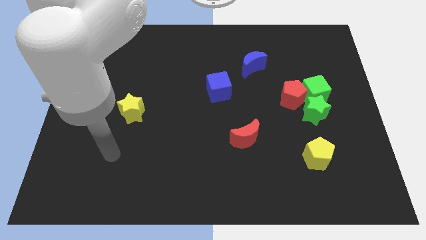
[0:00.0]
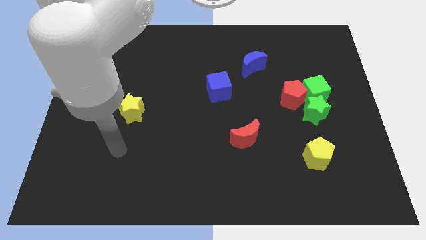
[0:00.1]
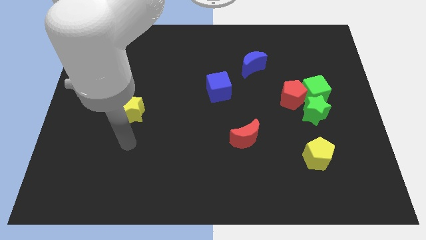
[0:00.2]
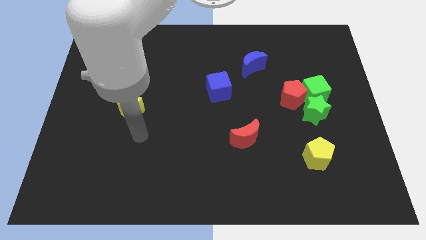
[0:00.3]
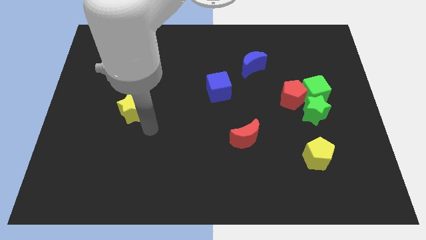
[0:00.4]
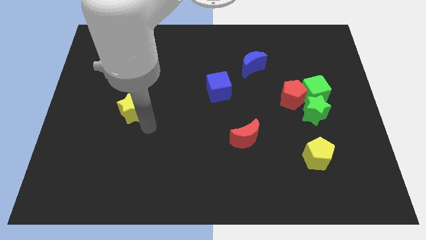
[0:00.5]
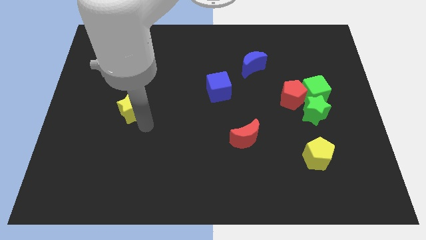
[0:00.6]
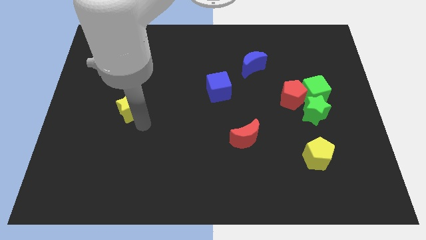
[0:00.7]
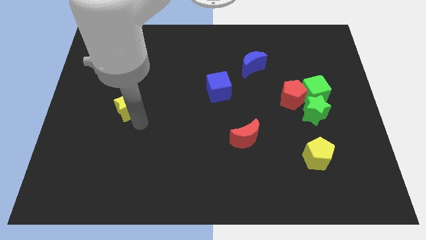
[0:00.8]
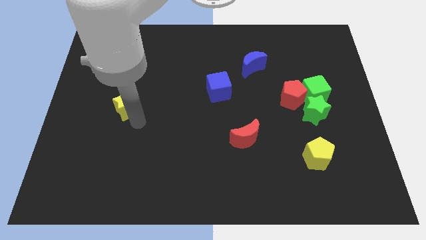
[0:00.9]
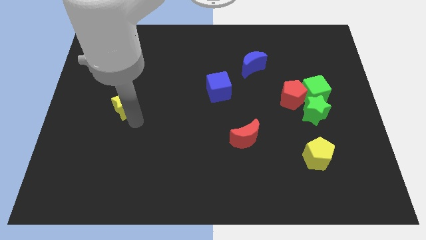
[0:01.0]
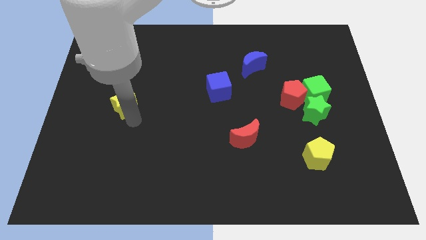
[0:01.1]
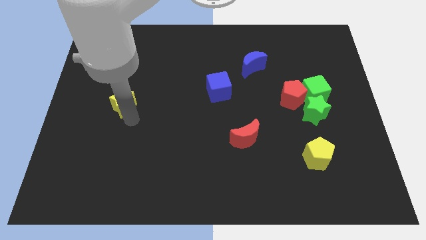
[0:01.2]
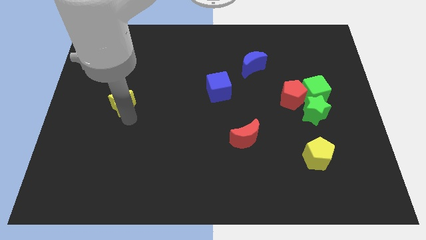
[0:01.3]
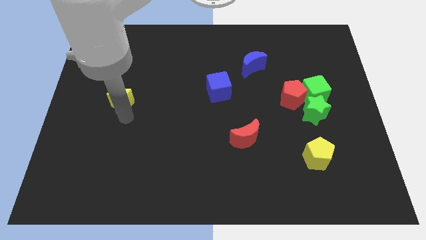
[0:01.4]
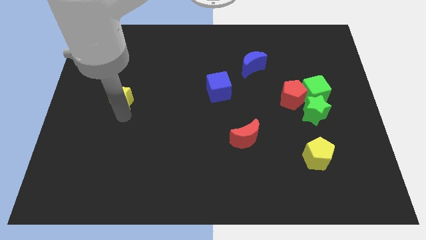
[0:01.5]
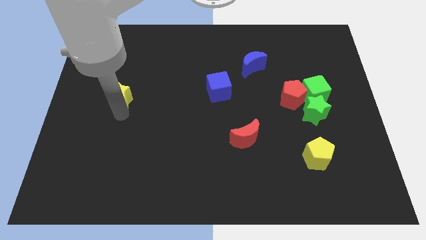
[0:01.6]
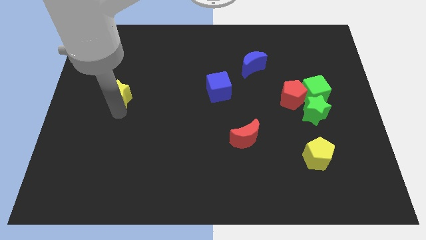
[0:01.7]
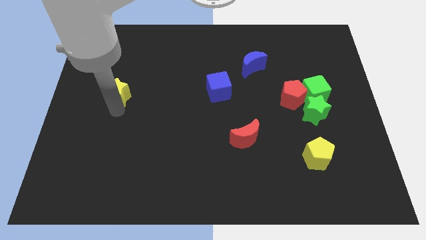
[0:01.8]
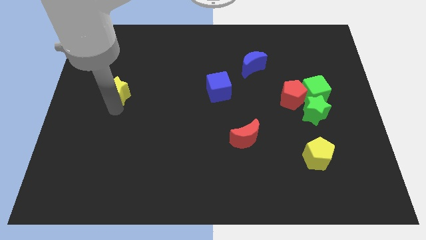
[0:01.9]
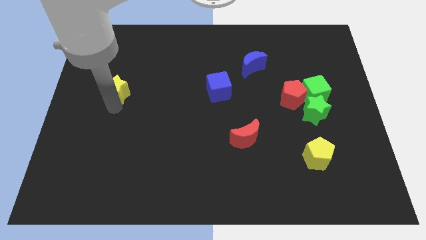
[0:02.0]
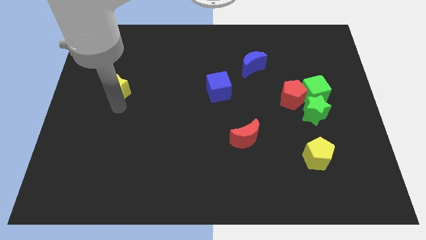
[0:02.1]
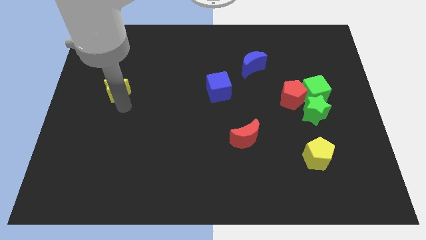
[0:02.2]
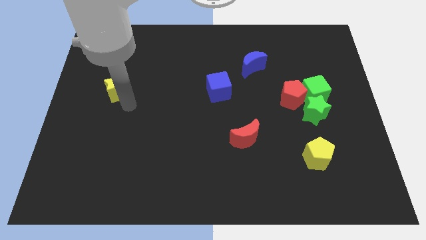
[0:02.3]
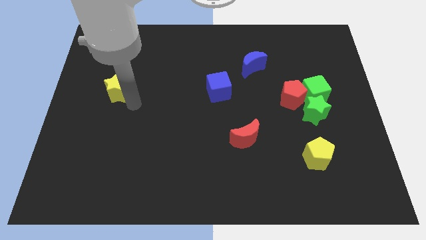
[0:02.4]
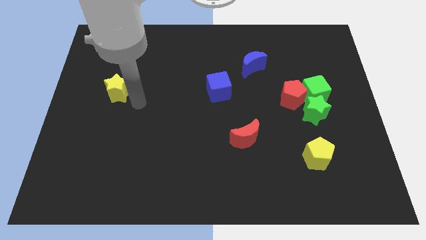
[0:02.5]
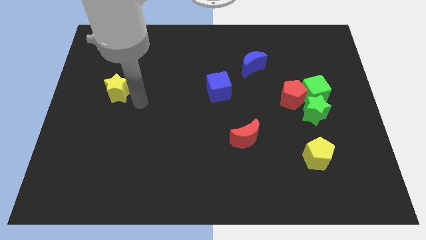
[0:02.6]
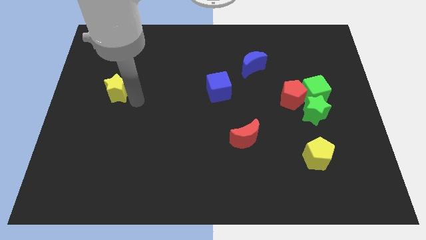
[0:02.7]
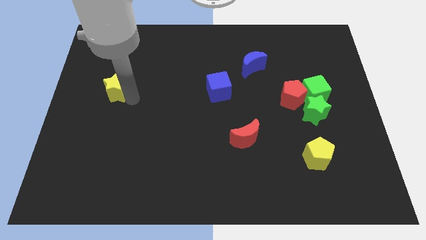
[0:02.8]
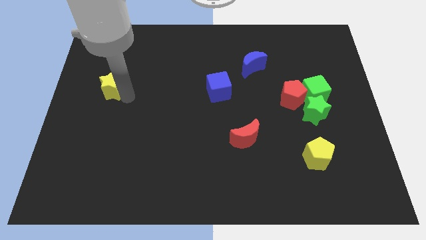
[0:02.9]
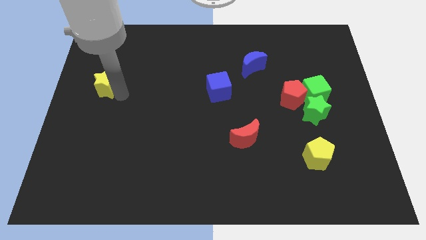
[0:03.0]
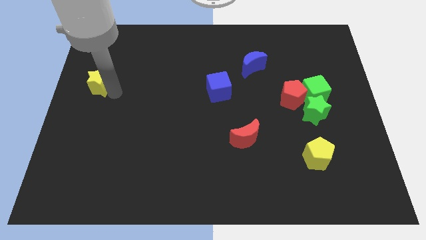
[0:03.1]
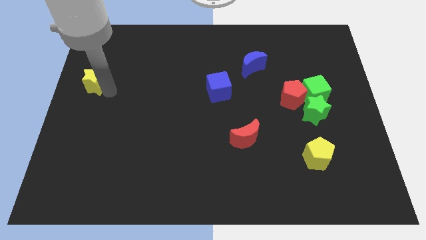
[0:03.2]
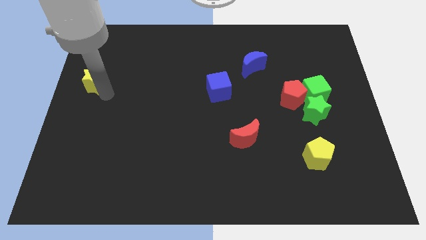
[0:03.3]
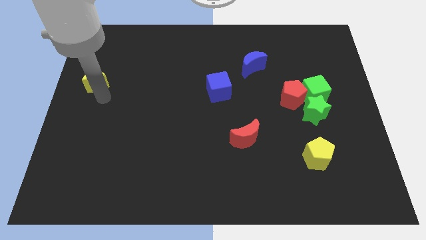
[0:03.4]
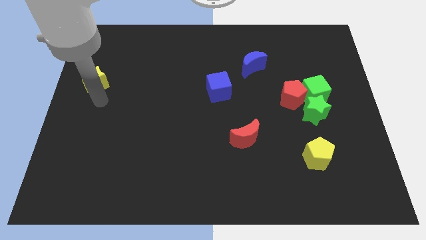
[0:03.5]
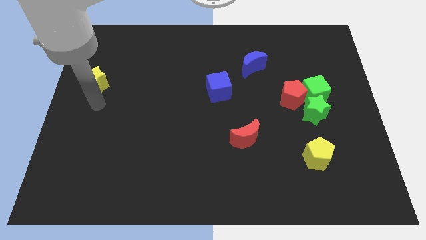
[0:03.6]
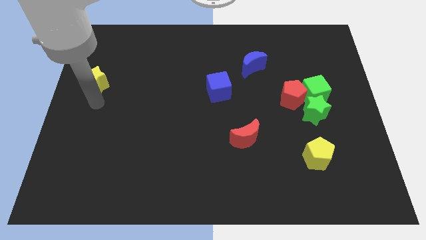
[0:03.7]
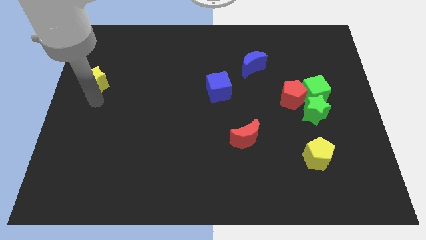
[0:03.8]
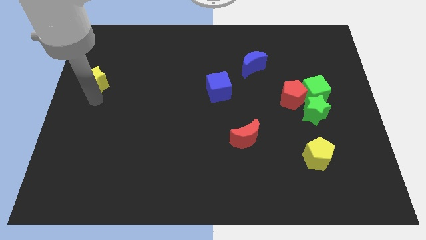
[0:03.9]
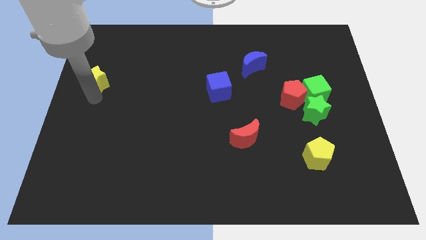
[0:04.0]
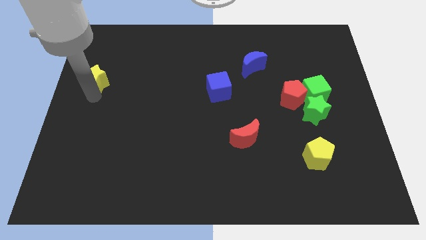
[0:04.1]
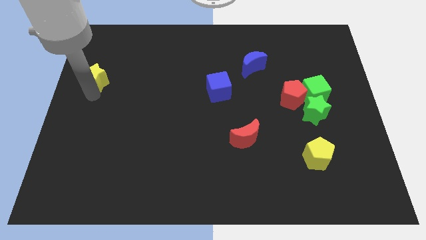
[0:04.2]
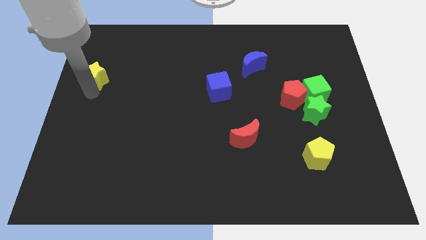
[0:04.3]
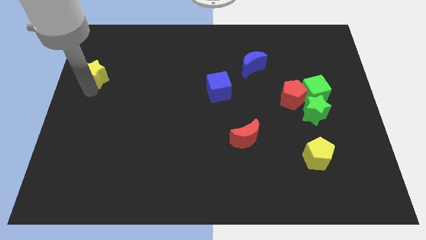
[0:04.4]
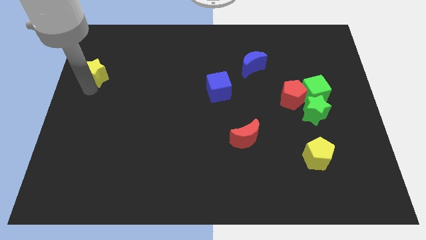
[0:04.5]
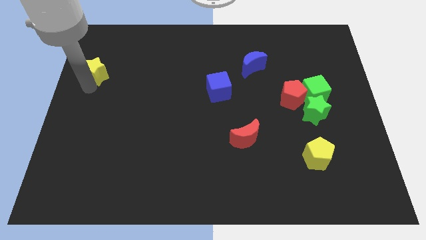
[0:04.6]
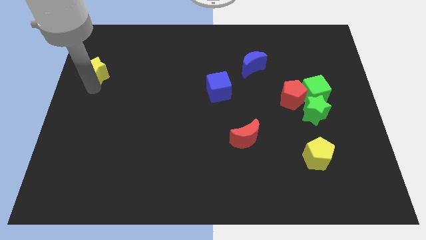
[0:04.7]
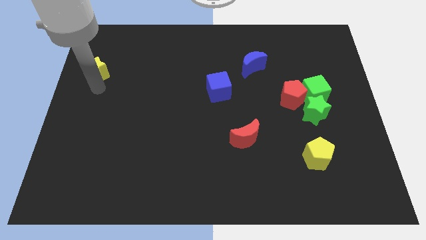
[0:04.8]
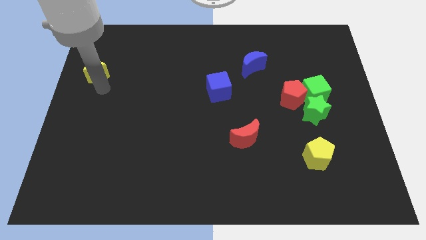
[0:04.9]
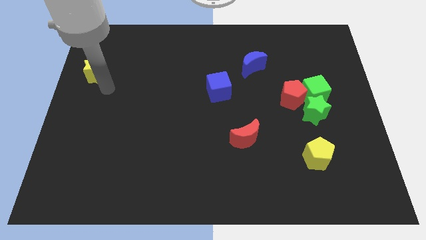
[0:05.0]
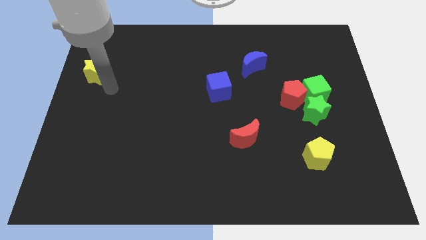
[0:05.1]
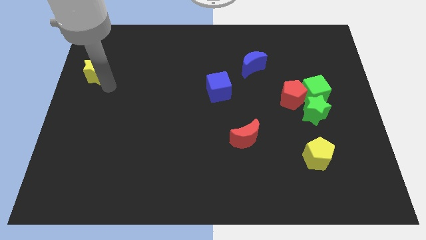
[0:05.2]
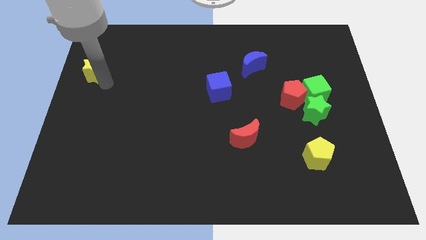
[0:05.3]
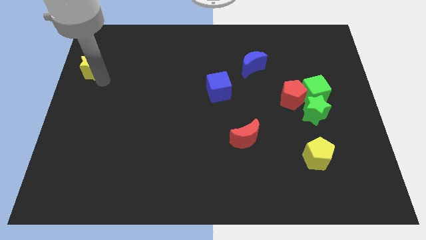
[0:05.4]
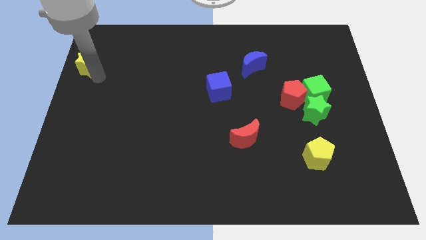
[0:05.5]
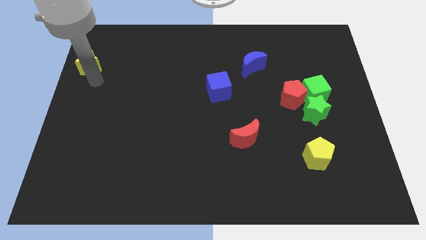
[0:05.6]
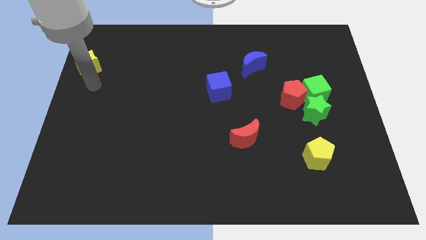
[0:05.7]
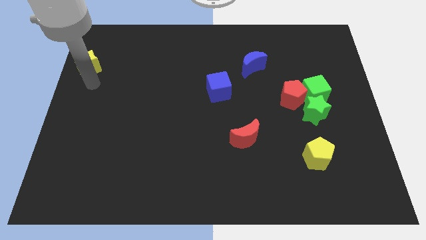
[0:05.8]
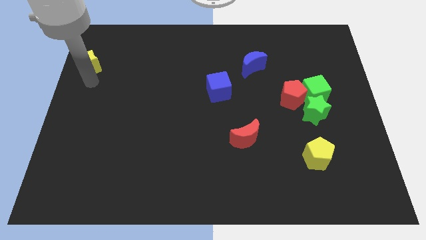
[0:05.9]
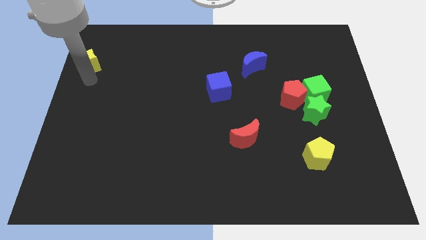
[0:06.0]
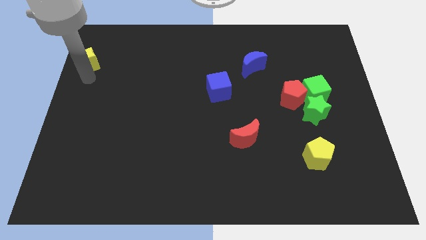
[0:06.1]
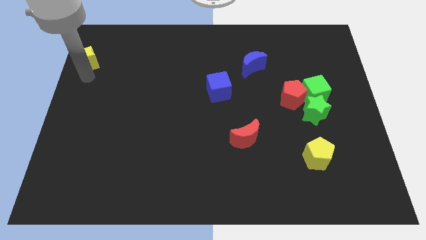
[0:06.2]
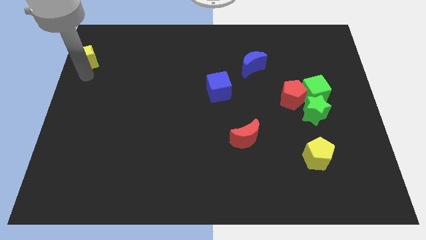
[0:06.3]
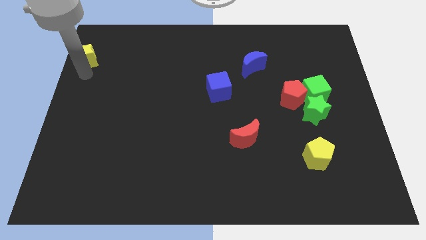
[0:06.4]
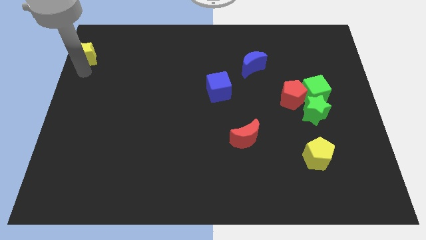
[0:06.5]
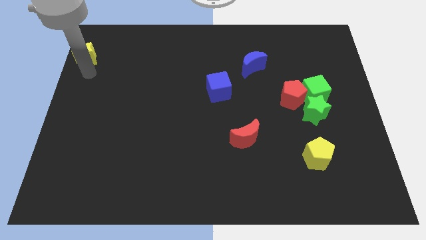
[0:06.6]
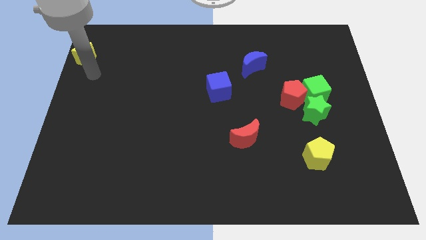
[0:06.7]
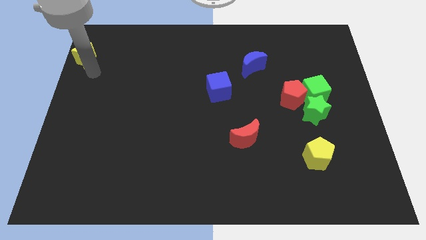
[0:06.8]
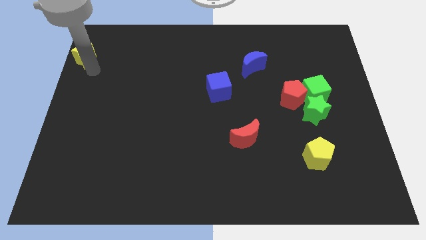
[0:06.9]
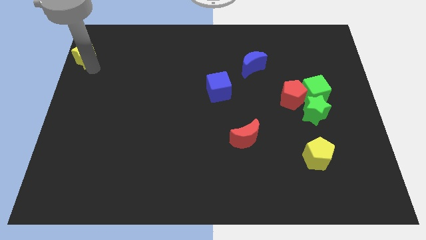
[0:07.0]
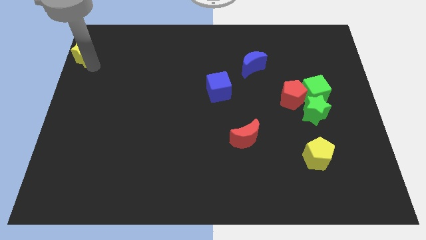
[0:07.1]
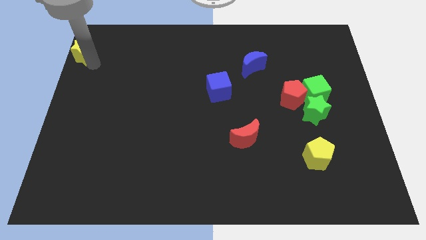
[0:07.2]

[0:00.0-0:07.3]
move the yellow star to the top left
